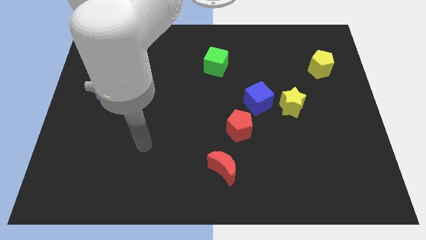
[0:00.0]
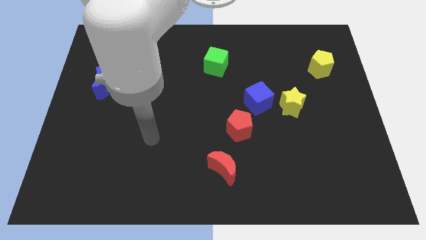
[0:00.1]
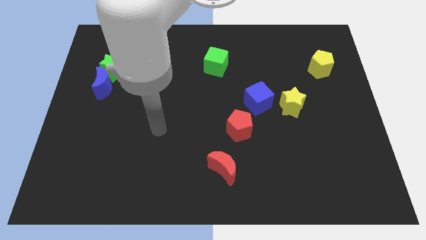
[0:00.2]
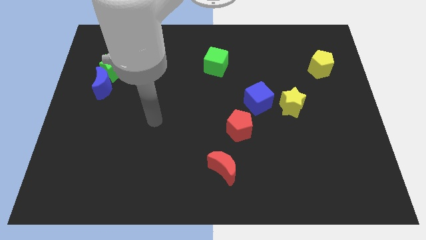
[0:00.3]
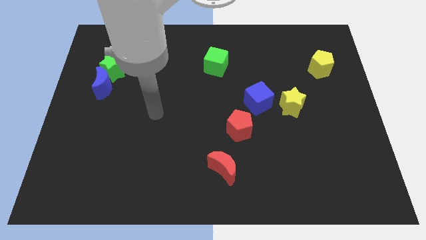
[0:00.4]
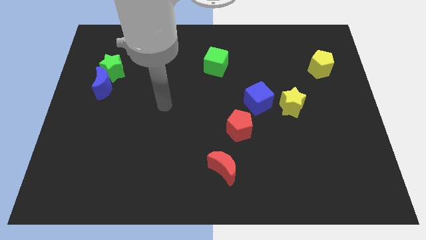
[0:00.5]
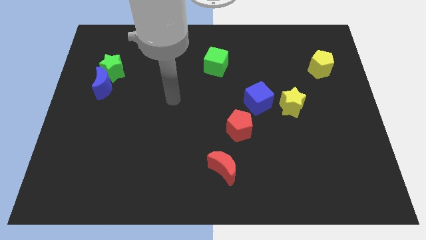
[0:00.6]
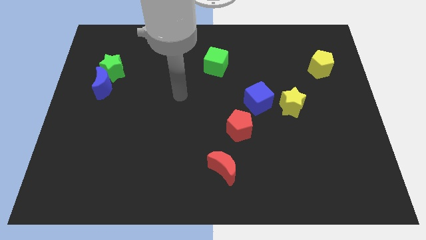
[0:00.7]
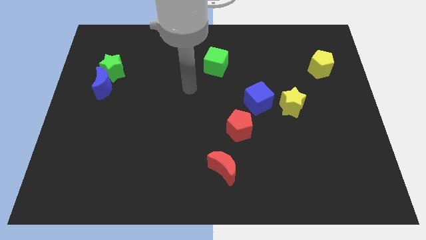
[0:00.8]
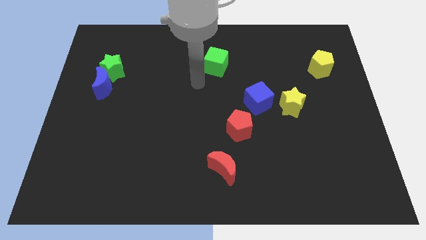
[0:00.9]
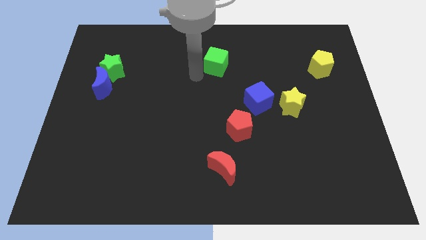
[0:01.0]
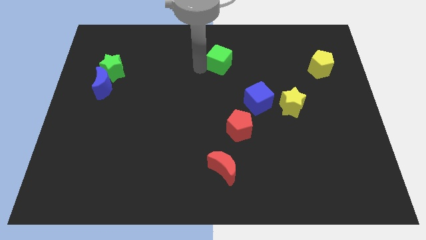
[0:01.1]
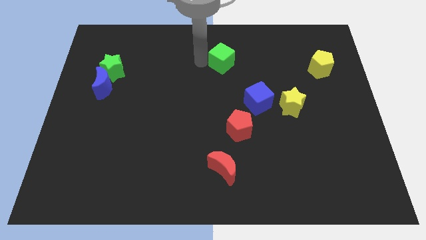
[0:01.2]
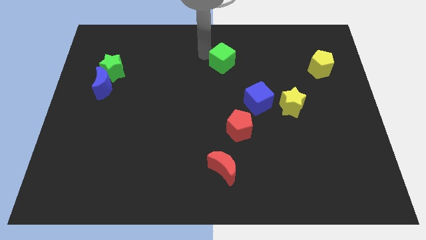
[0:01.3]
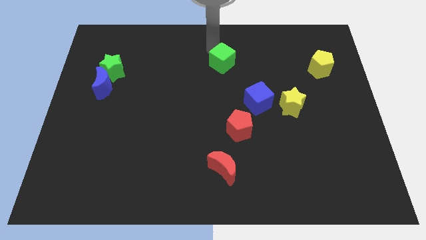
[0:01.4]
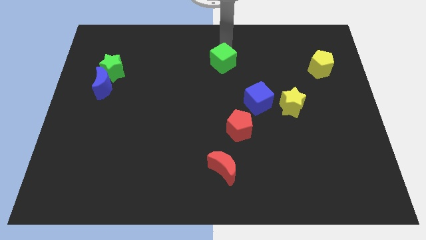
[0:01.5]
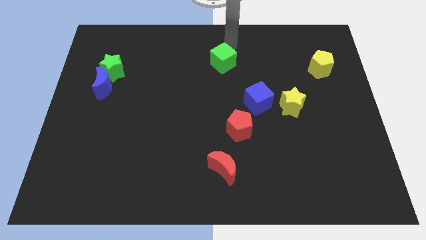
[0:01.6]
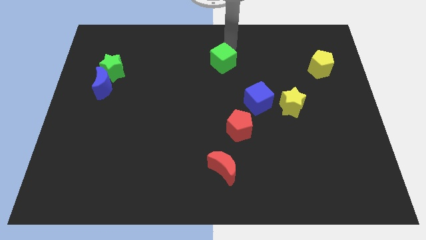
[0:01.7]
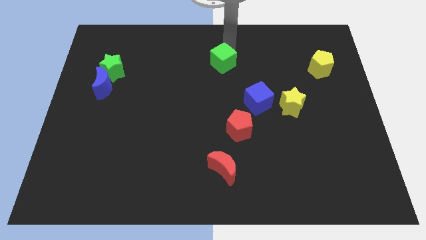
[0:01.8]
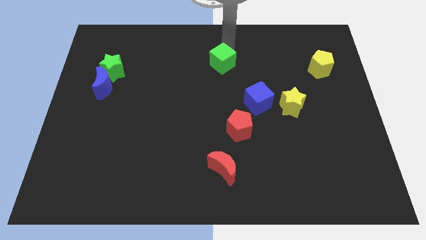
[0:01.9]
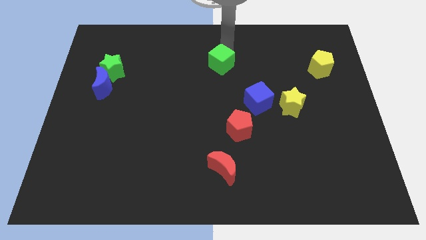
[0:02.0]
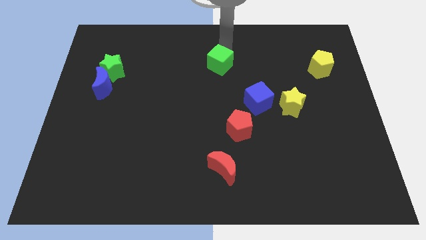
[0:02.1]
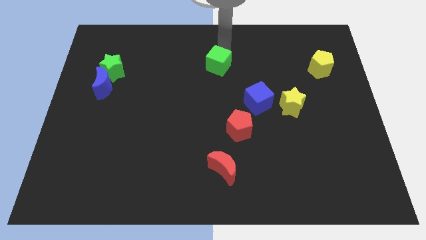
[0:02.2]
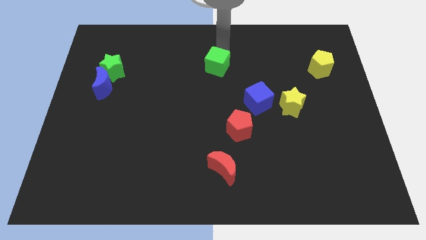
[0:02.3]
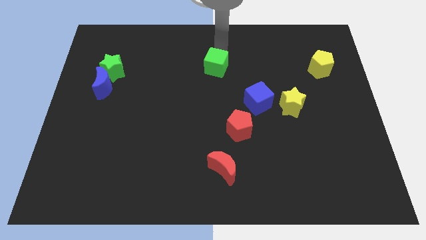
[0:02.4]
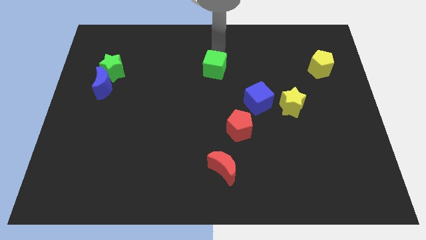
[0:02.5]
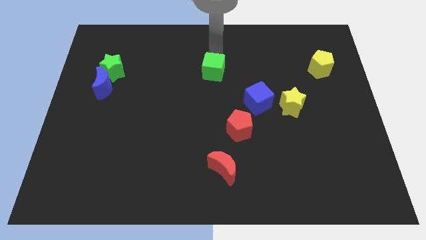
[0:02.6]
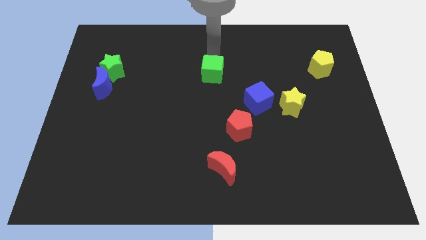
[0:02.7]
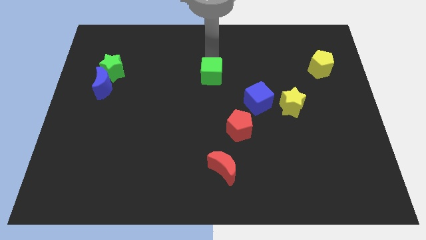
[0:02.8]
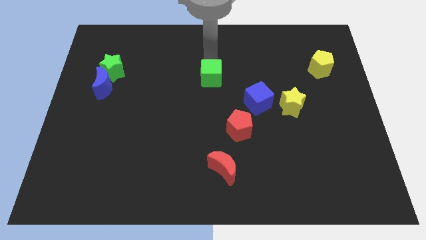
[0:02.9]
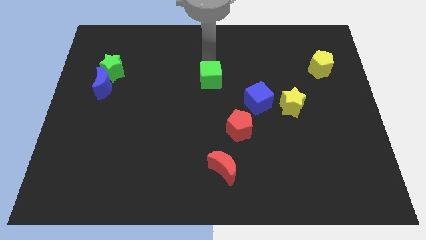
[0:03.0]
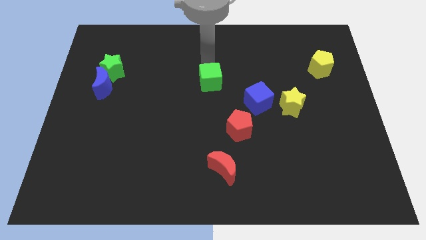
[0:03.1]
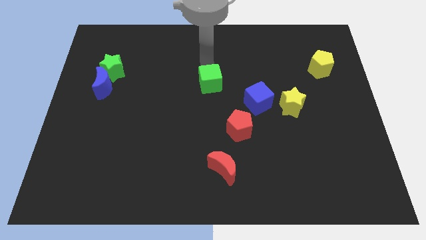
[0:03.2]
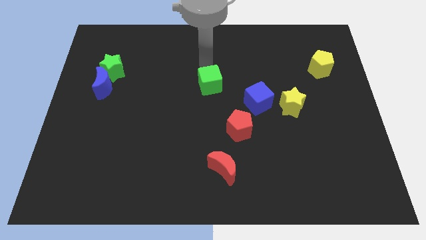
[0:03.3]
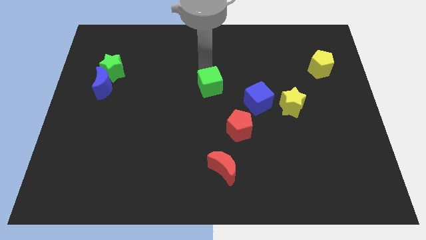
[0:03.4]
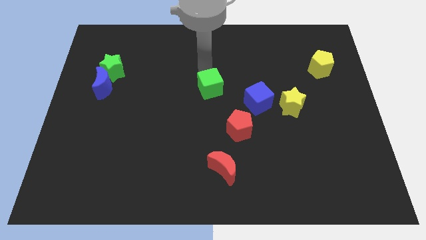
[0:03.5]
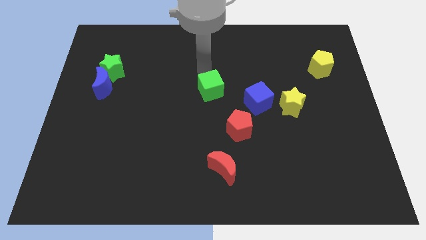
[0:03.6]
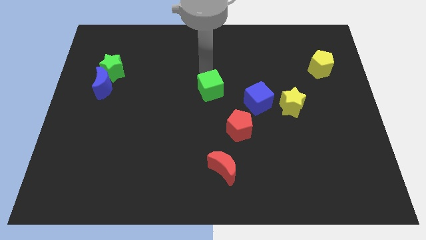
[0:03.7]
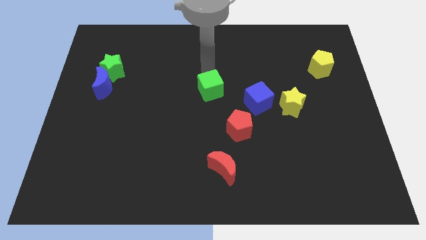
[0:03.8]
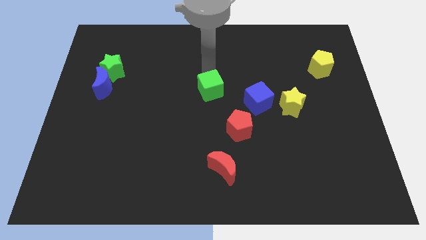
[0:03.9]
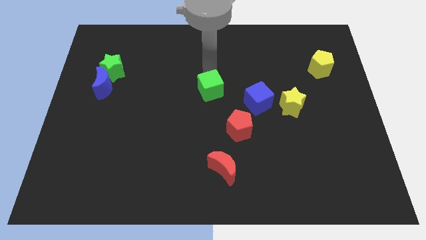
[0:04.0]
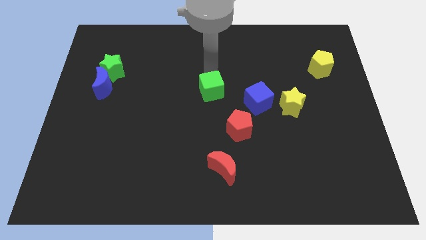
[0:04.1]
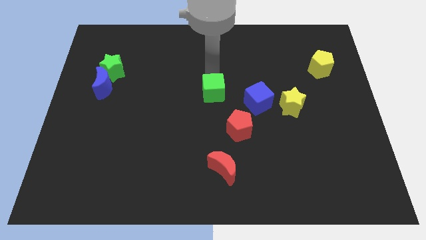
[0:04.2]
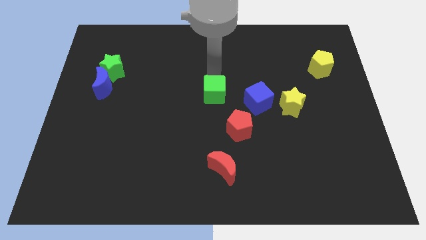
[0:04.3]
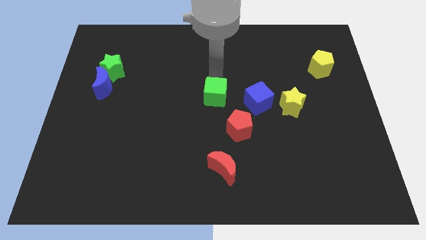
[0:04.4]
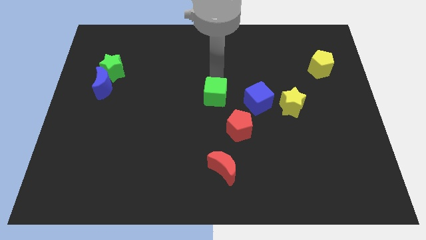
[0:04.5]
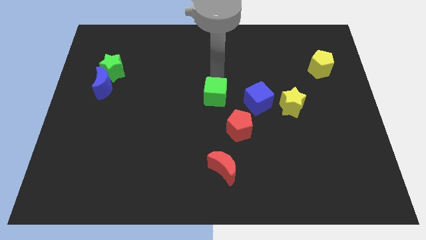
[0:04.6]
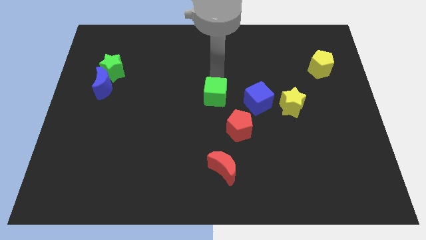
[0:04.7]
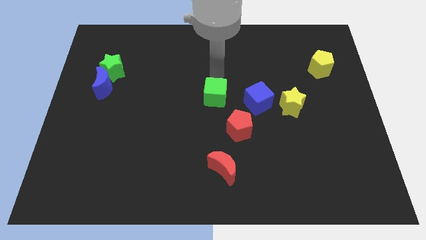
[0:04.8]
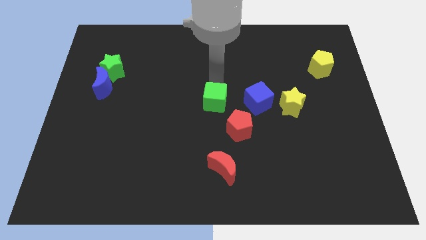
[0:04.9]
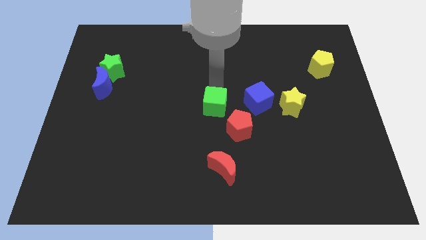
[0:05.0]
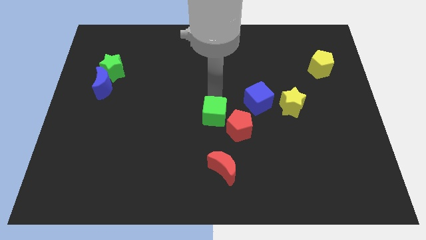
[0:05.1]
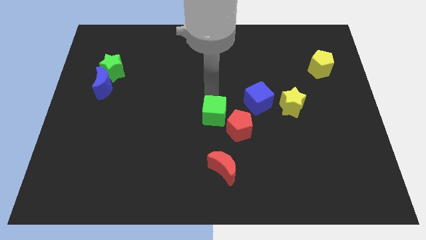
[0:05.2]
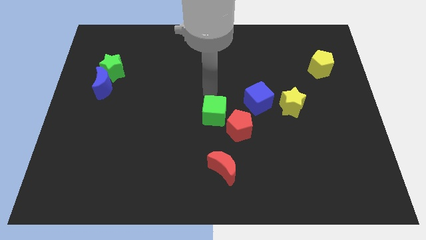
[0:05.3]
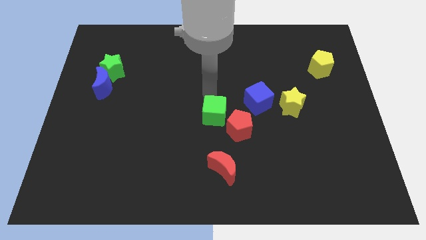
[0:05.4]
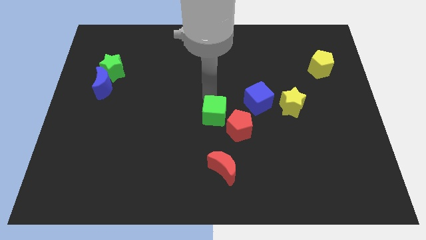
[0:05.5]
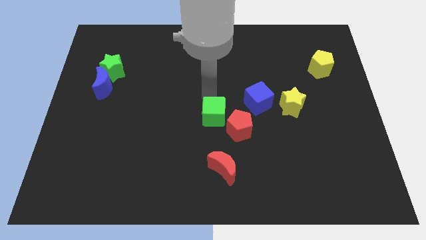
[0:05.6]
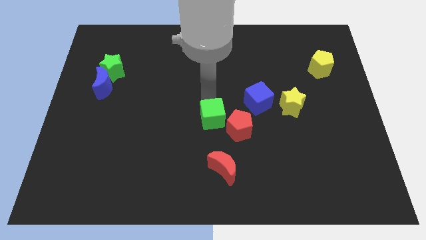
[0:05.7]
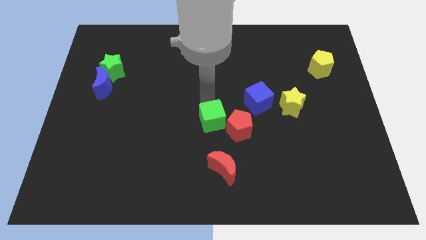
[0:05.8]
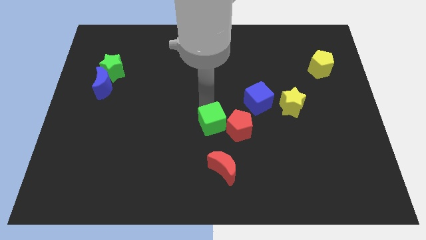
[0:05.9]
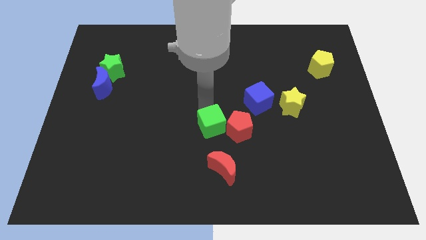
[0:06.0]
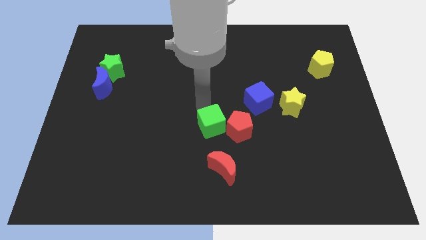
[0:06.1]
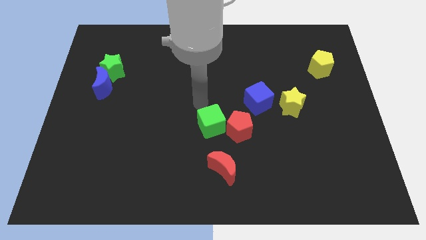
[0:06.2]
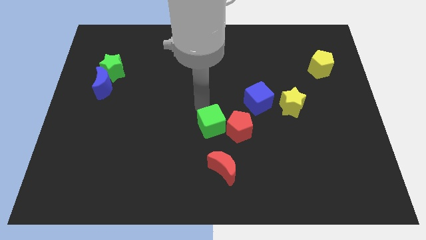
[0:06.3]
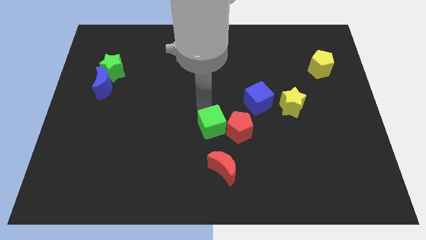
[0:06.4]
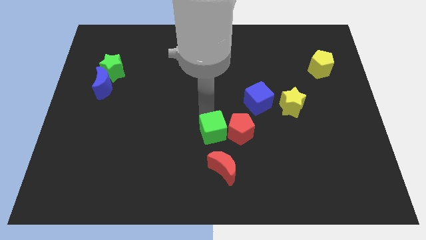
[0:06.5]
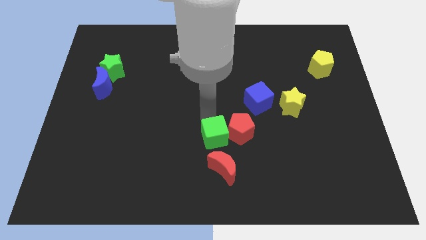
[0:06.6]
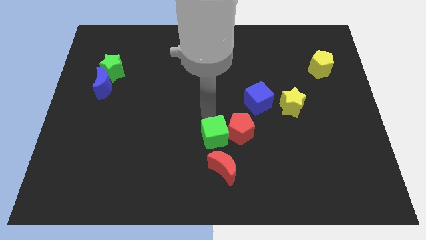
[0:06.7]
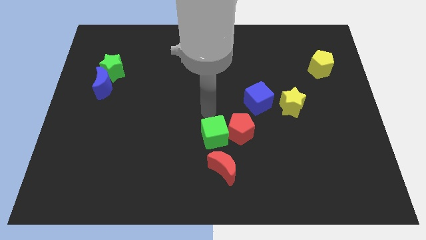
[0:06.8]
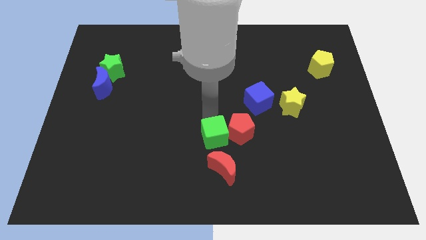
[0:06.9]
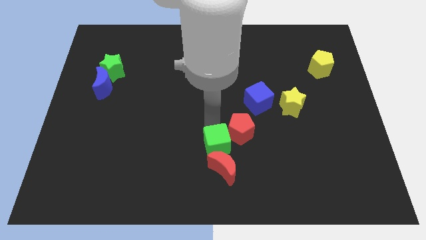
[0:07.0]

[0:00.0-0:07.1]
put the green cube next to the red moon
